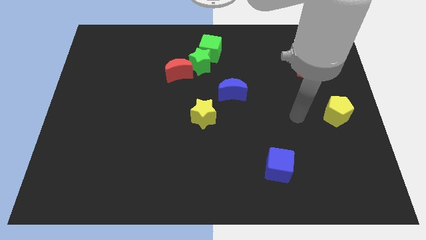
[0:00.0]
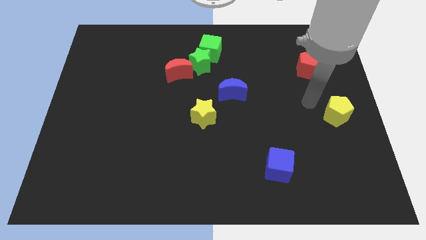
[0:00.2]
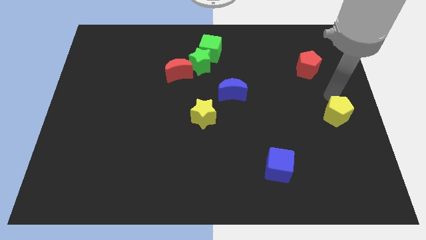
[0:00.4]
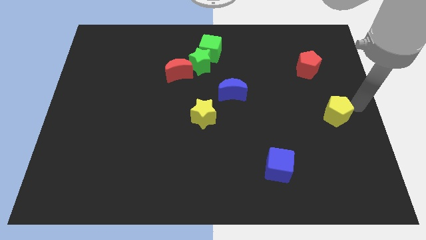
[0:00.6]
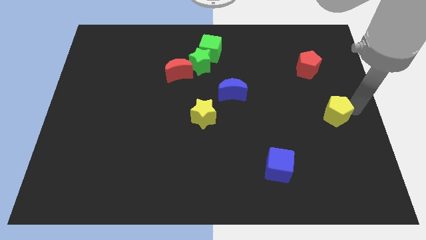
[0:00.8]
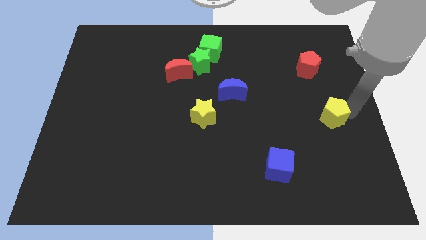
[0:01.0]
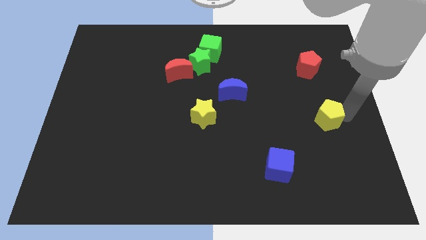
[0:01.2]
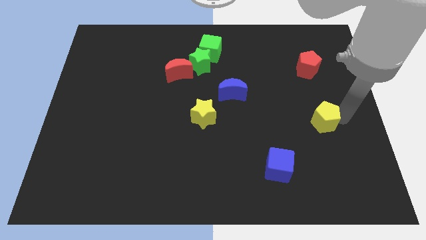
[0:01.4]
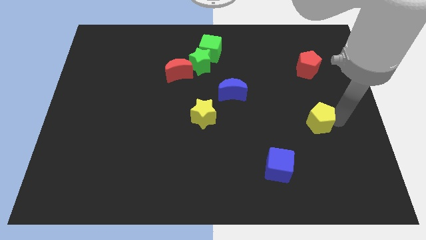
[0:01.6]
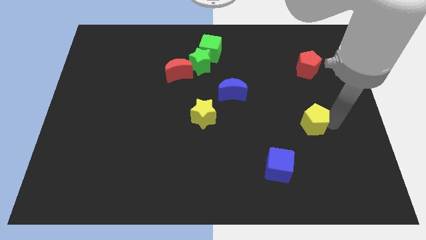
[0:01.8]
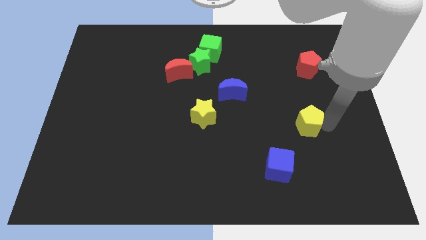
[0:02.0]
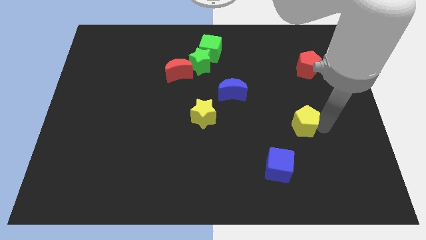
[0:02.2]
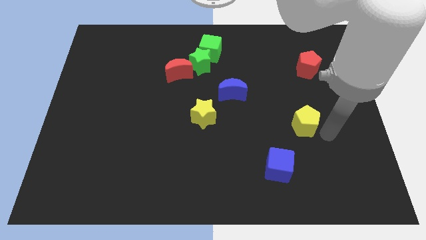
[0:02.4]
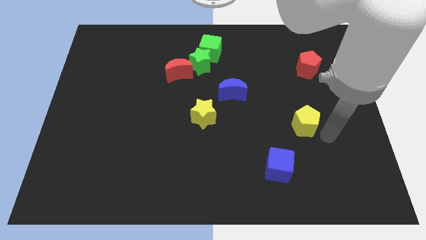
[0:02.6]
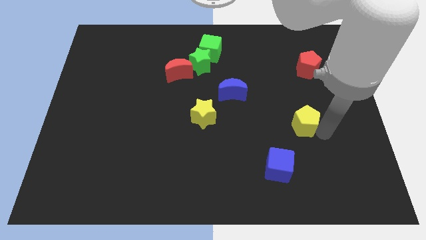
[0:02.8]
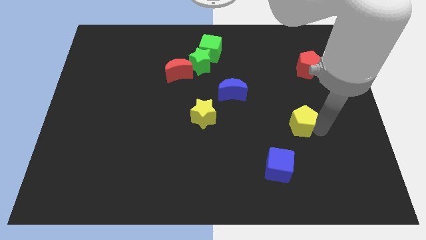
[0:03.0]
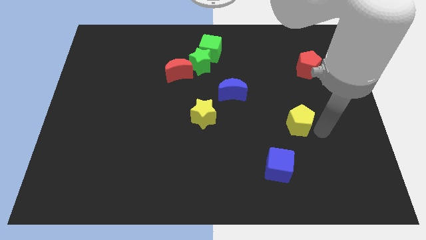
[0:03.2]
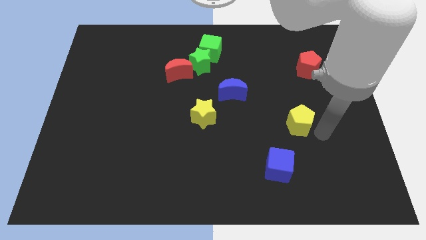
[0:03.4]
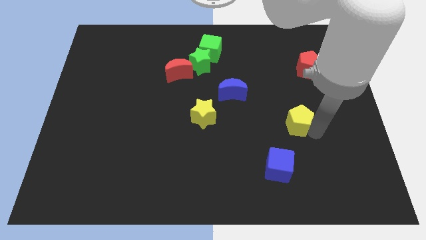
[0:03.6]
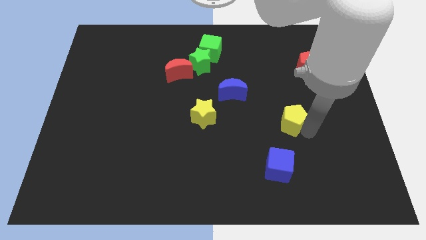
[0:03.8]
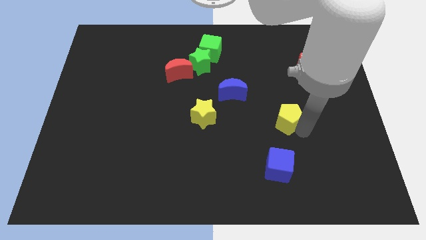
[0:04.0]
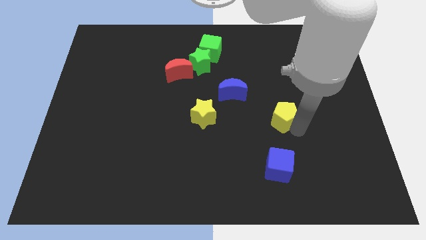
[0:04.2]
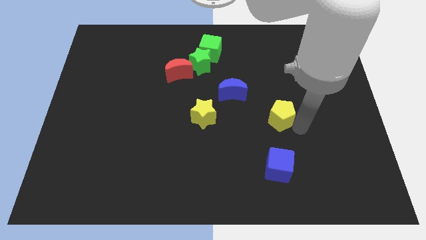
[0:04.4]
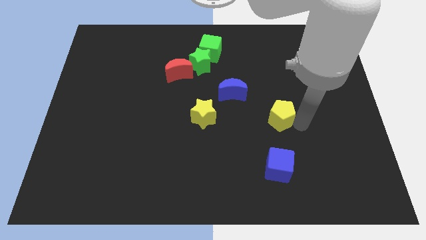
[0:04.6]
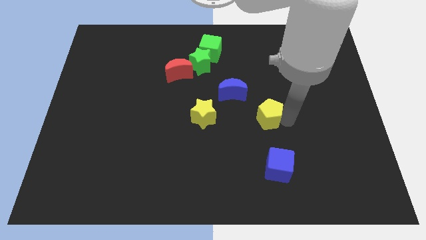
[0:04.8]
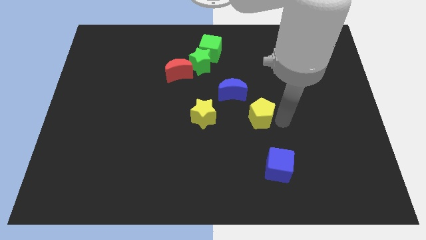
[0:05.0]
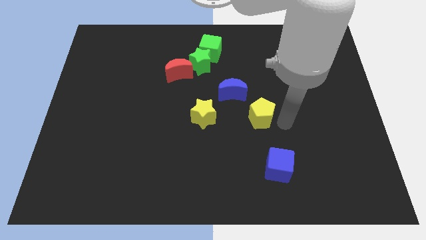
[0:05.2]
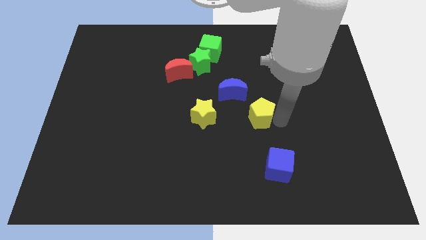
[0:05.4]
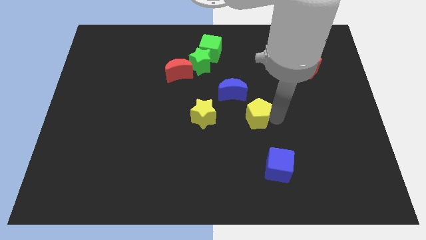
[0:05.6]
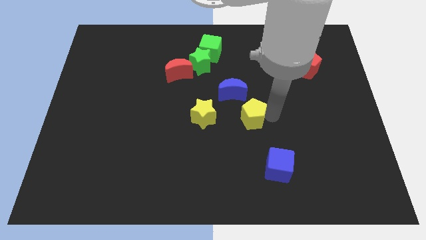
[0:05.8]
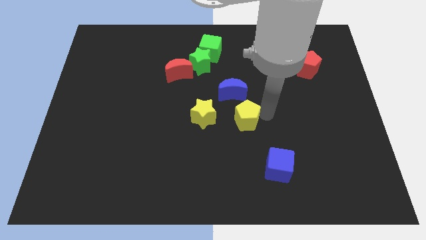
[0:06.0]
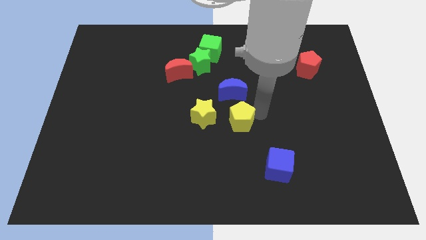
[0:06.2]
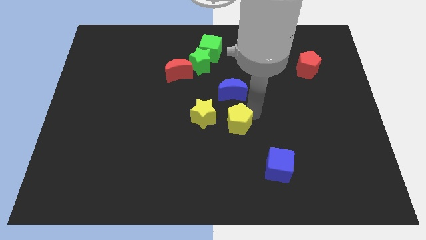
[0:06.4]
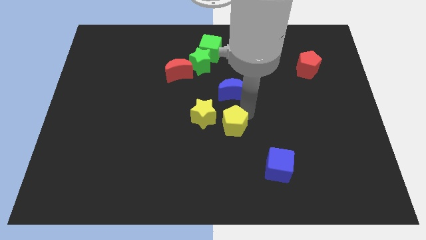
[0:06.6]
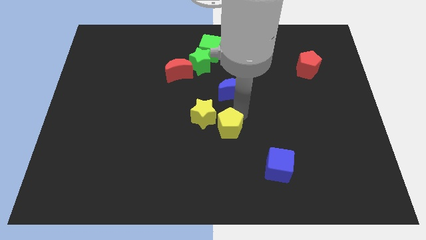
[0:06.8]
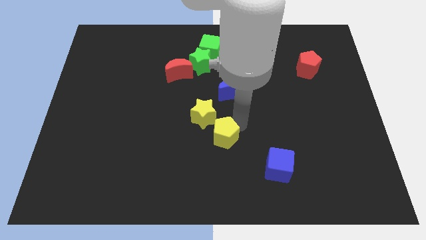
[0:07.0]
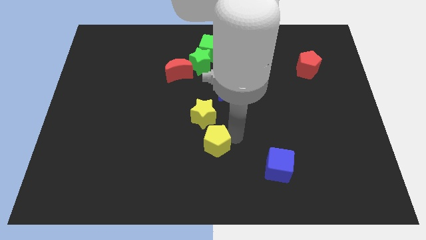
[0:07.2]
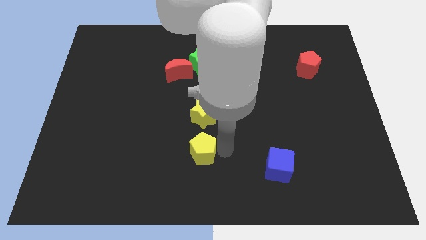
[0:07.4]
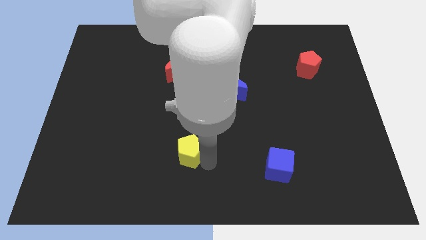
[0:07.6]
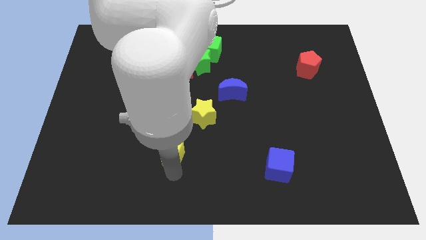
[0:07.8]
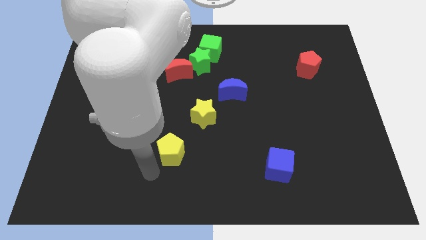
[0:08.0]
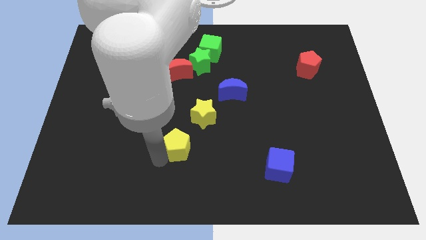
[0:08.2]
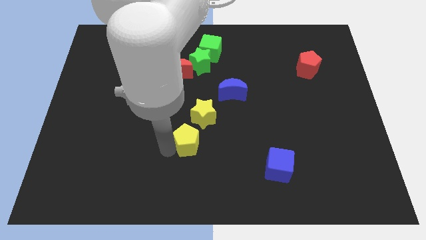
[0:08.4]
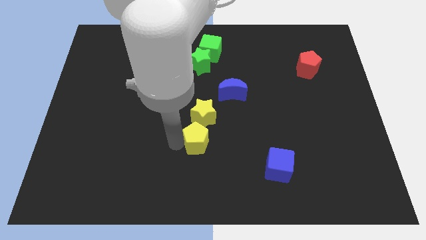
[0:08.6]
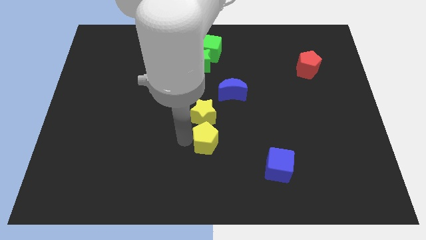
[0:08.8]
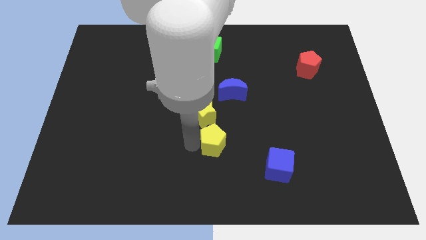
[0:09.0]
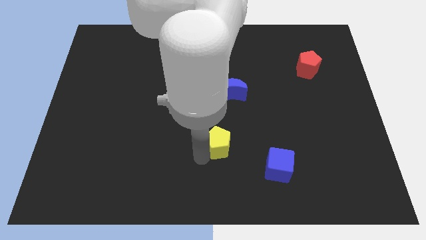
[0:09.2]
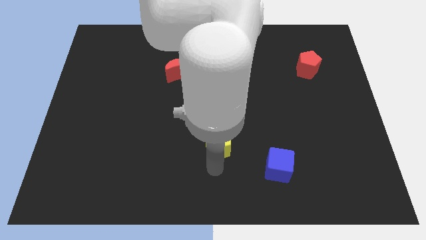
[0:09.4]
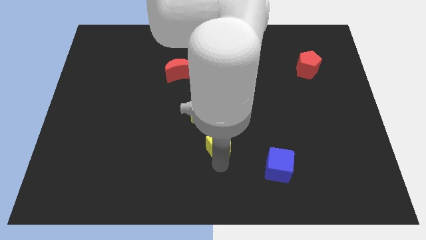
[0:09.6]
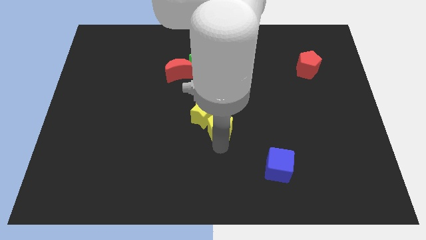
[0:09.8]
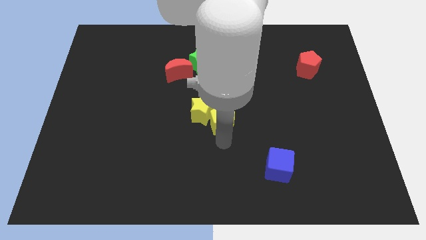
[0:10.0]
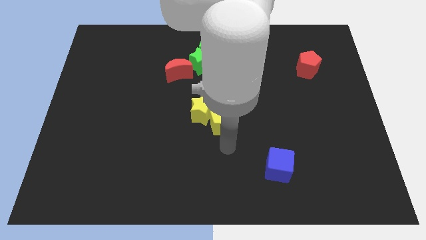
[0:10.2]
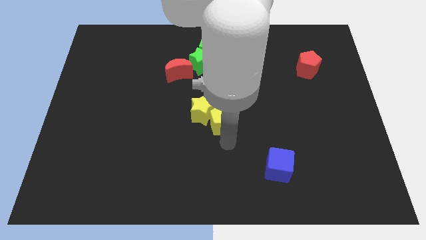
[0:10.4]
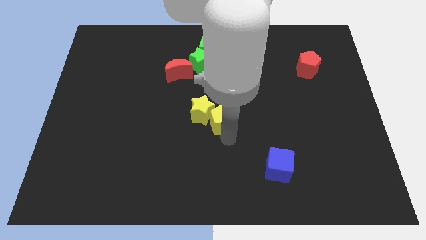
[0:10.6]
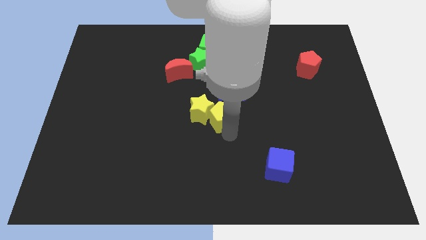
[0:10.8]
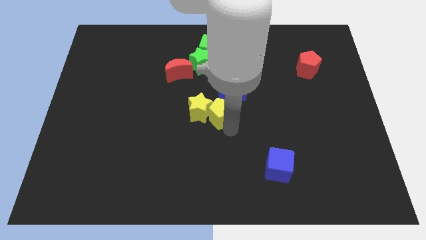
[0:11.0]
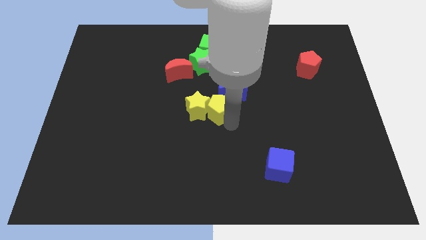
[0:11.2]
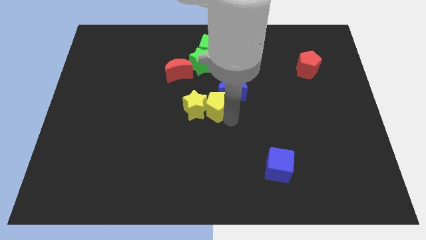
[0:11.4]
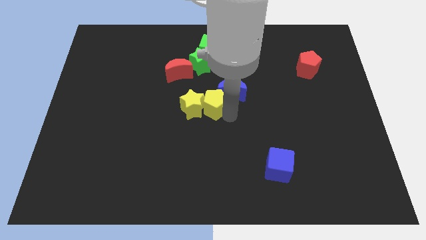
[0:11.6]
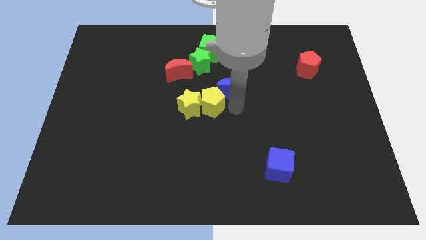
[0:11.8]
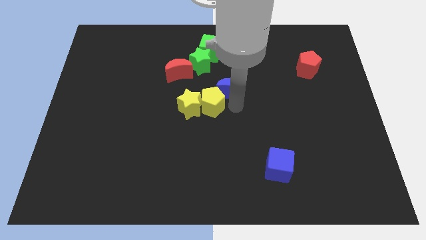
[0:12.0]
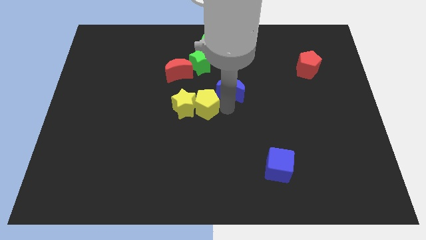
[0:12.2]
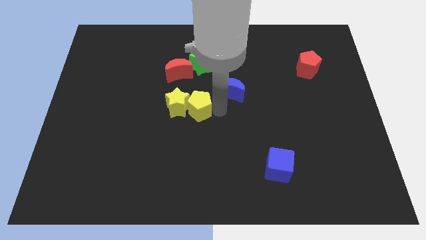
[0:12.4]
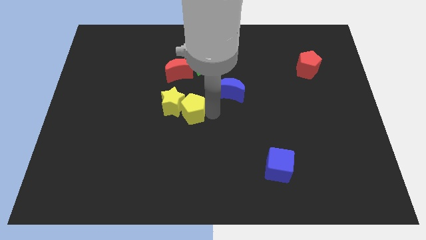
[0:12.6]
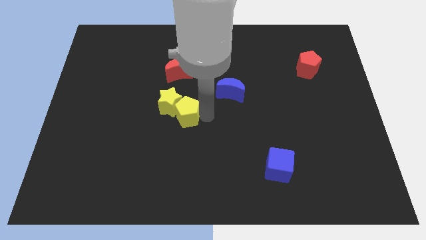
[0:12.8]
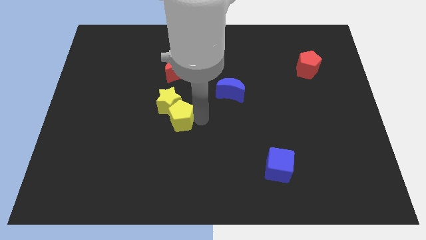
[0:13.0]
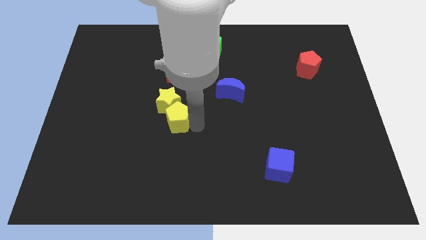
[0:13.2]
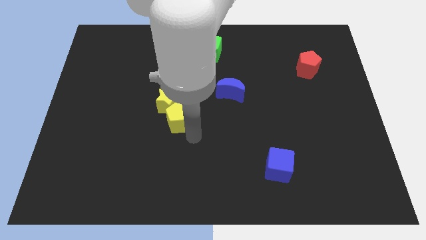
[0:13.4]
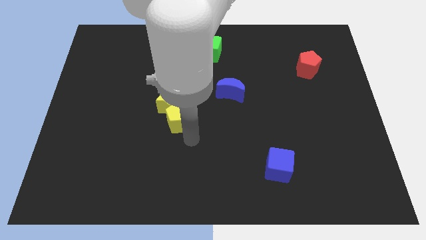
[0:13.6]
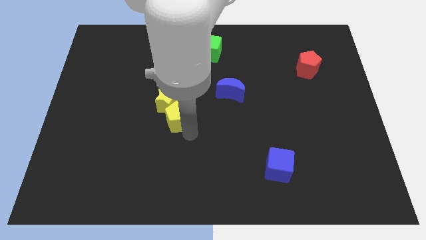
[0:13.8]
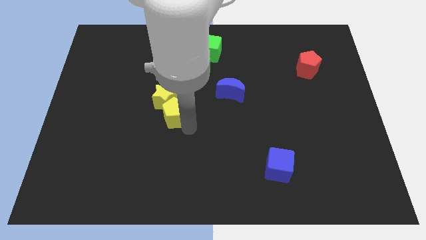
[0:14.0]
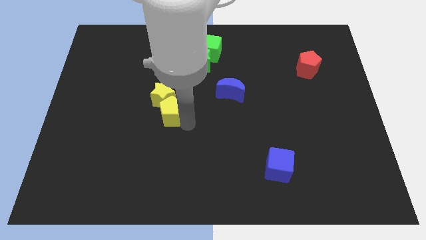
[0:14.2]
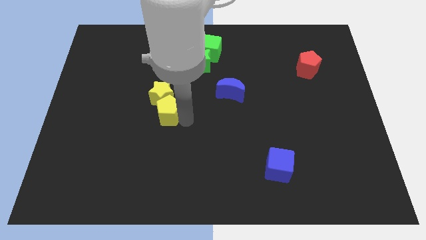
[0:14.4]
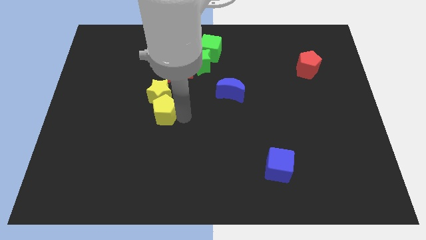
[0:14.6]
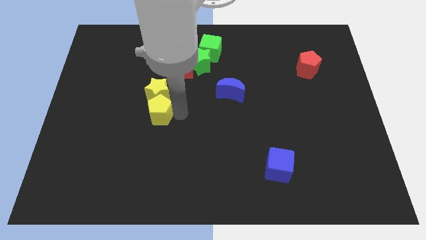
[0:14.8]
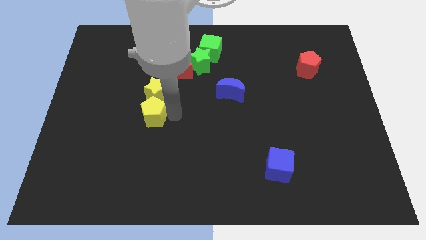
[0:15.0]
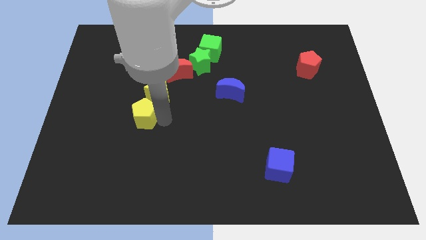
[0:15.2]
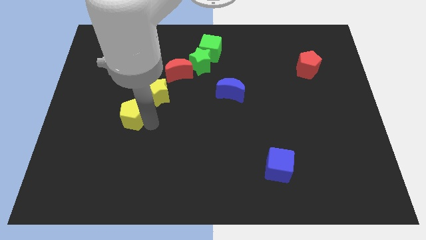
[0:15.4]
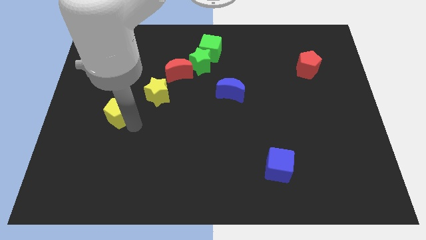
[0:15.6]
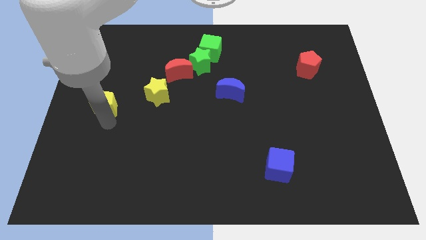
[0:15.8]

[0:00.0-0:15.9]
put the yellow pentagon to the center left
